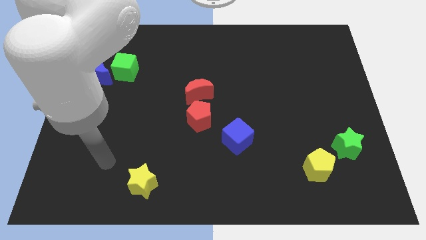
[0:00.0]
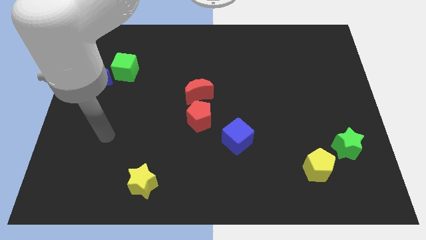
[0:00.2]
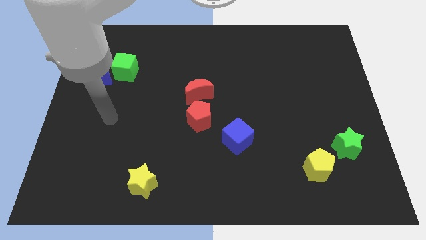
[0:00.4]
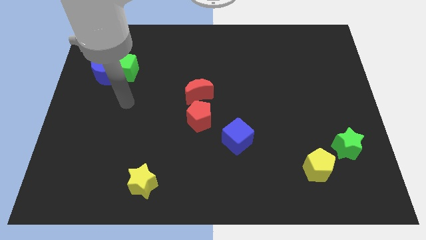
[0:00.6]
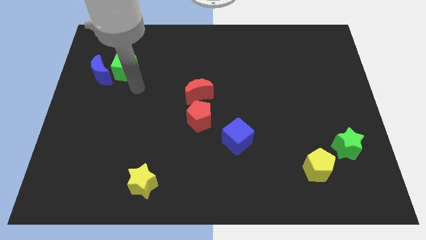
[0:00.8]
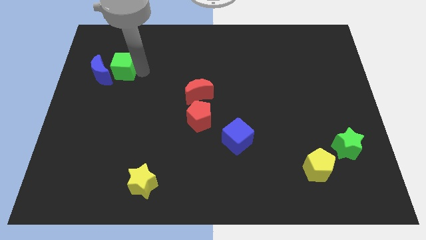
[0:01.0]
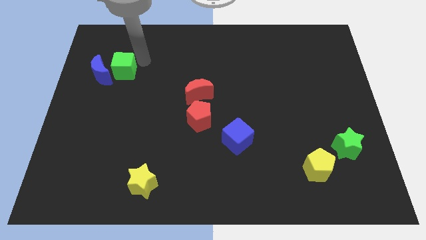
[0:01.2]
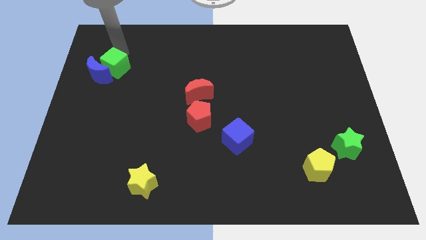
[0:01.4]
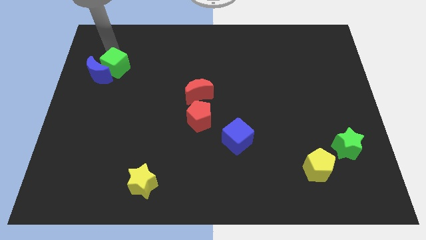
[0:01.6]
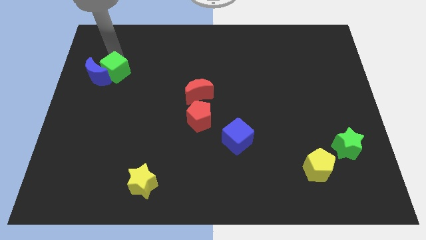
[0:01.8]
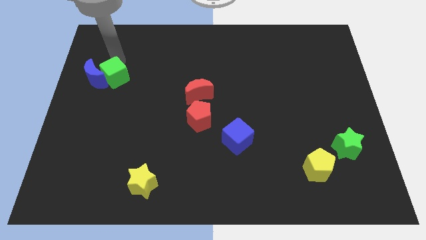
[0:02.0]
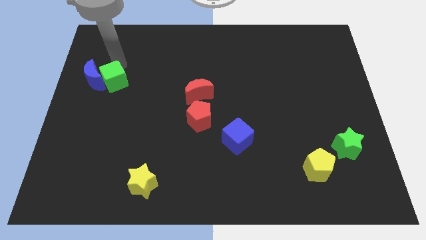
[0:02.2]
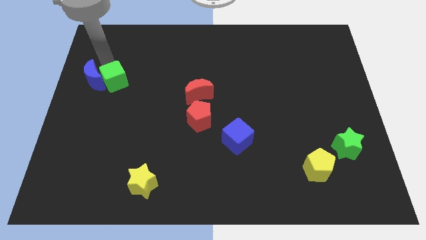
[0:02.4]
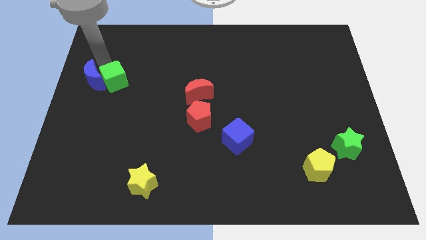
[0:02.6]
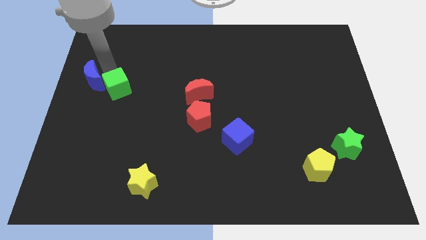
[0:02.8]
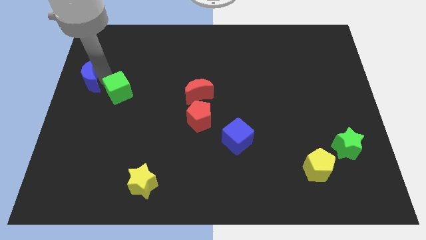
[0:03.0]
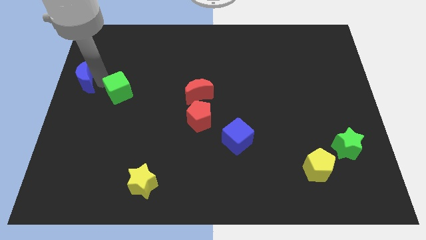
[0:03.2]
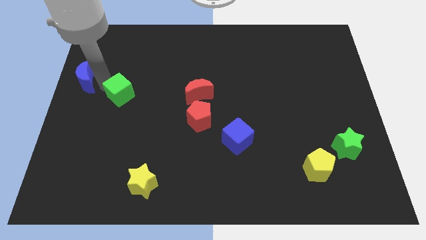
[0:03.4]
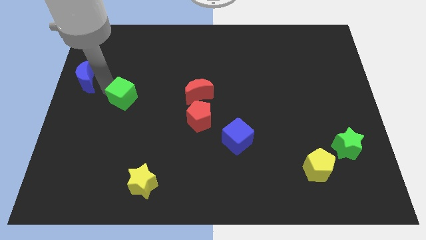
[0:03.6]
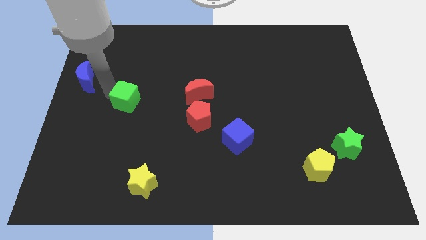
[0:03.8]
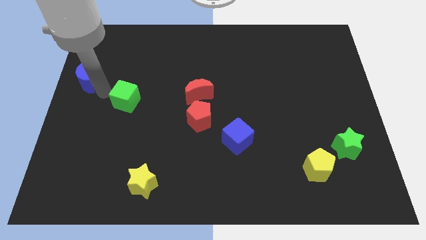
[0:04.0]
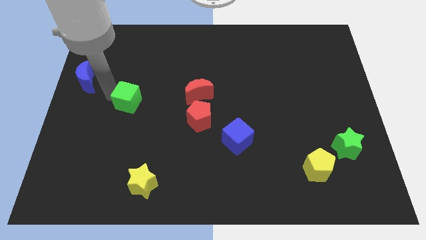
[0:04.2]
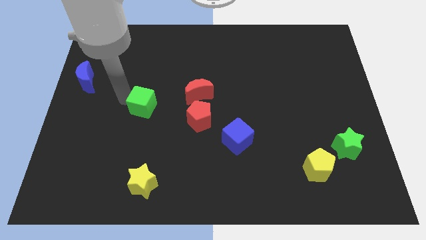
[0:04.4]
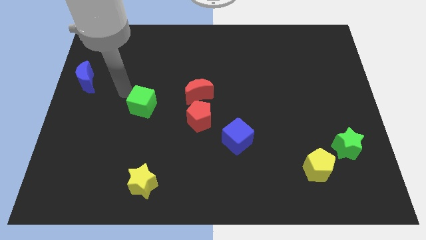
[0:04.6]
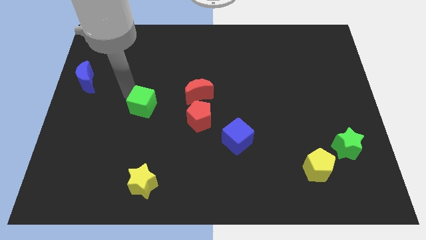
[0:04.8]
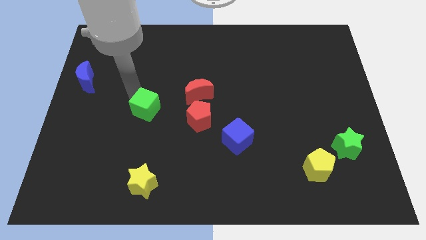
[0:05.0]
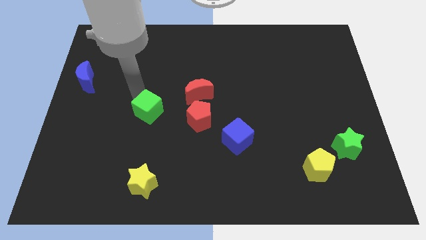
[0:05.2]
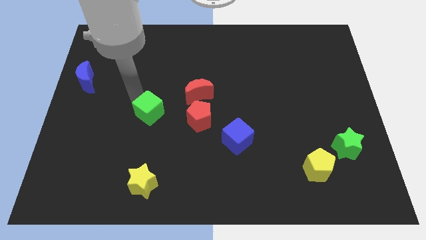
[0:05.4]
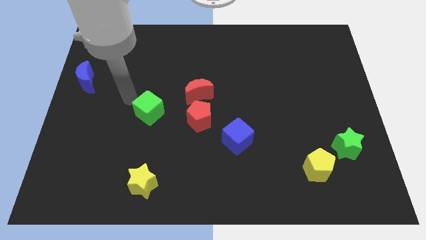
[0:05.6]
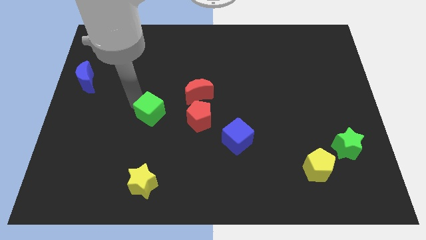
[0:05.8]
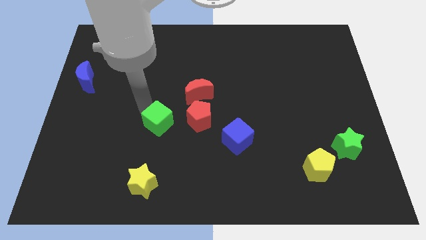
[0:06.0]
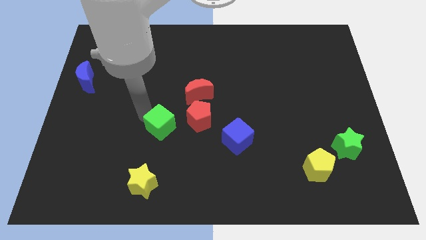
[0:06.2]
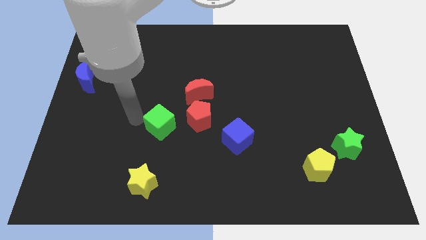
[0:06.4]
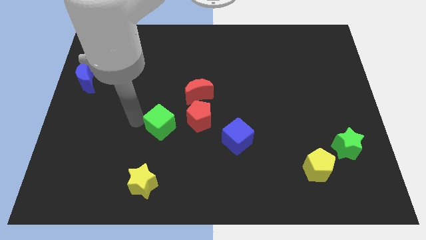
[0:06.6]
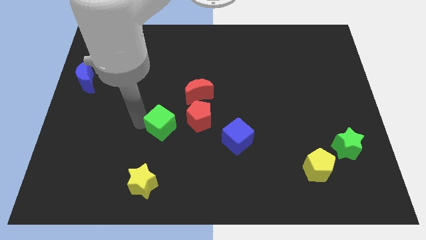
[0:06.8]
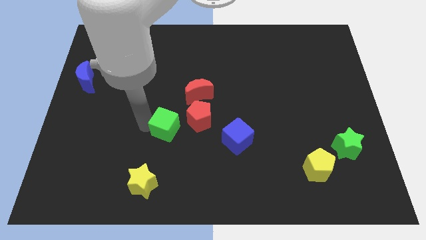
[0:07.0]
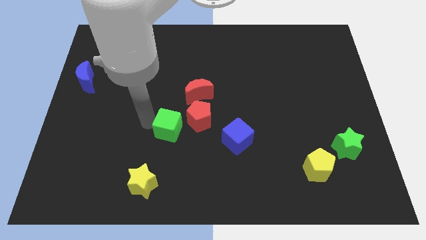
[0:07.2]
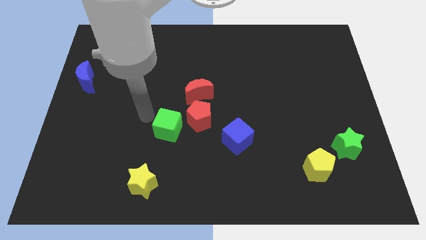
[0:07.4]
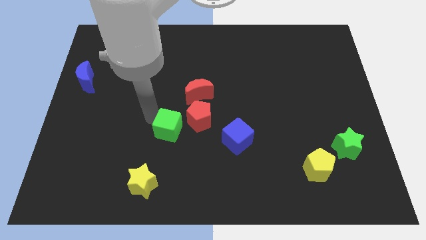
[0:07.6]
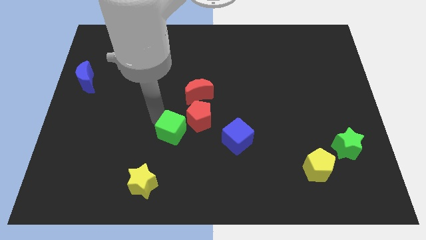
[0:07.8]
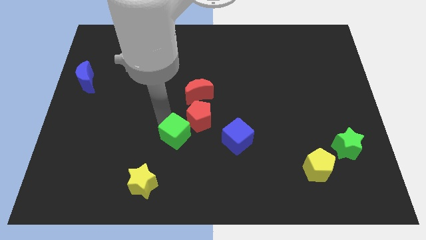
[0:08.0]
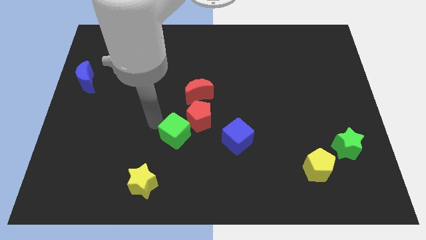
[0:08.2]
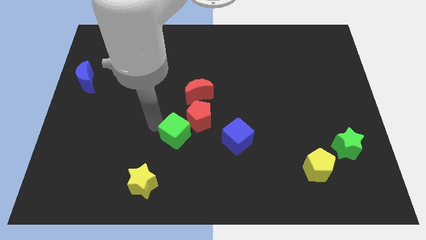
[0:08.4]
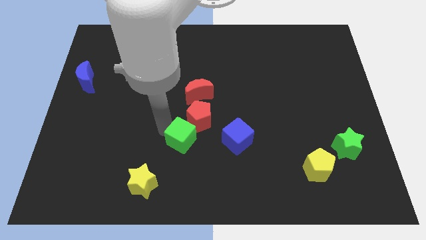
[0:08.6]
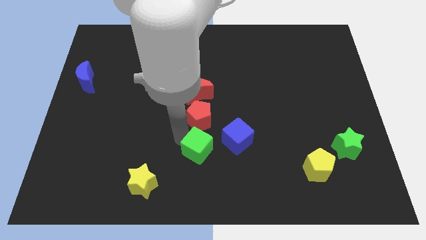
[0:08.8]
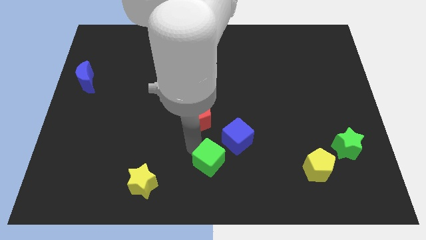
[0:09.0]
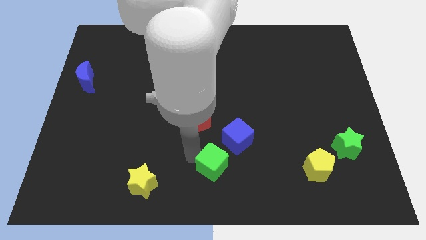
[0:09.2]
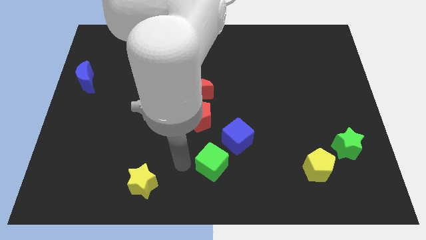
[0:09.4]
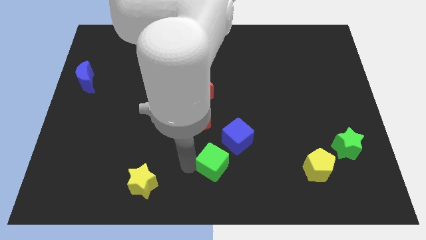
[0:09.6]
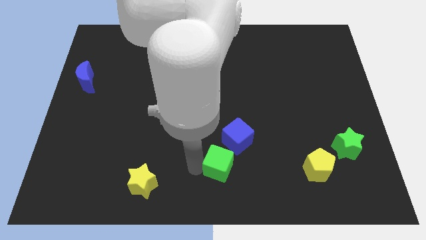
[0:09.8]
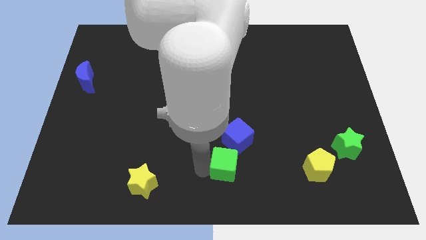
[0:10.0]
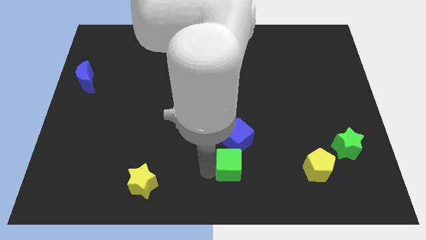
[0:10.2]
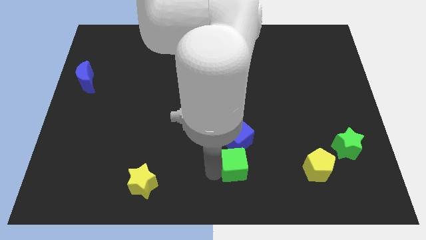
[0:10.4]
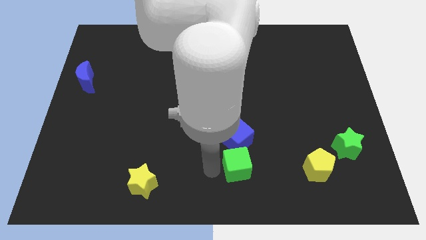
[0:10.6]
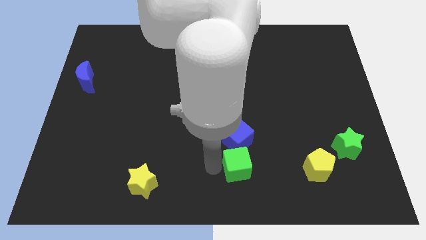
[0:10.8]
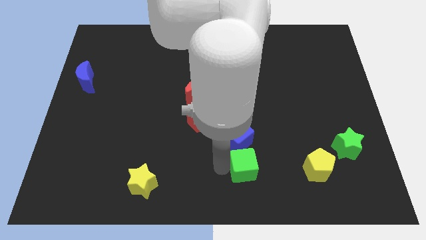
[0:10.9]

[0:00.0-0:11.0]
slide the green cube just left of the yellow pentagon

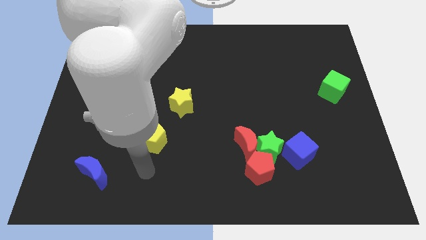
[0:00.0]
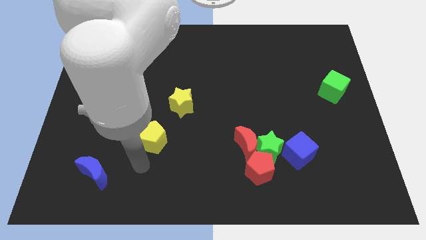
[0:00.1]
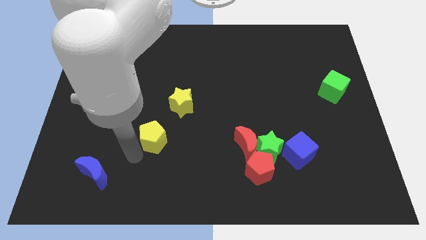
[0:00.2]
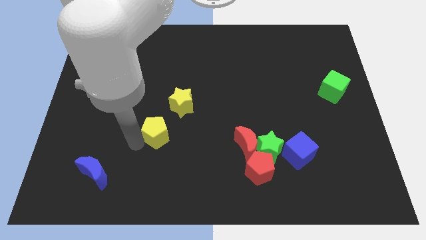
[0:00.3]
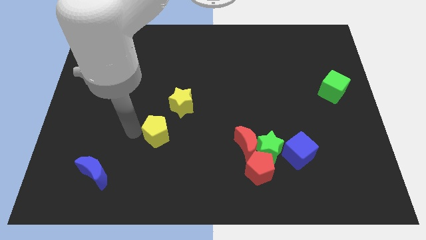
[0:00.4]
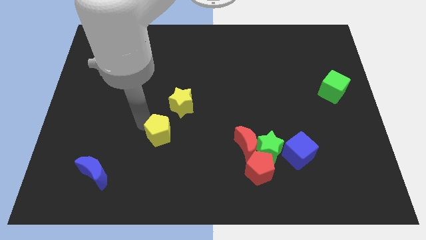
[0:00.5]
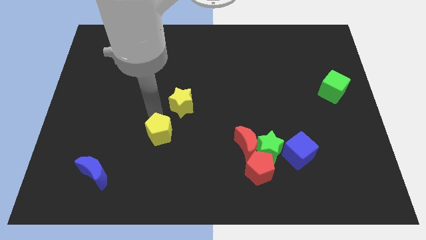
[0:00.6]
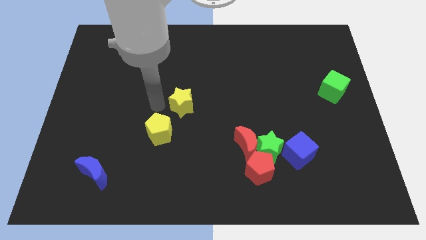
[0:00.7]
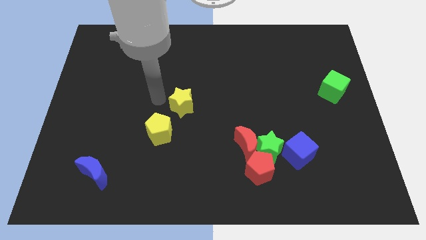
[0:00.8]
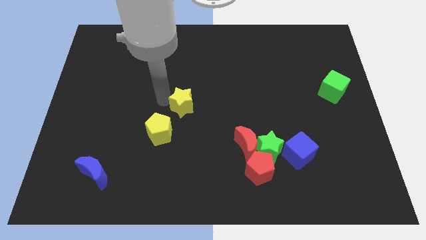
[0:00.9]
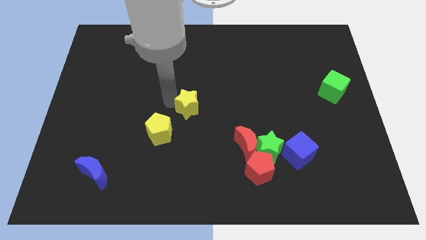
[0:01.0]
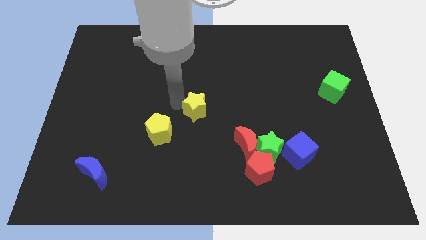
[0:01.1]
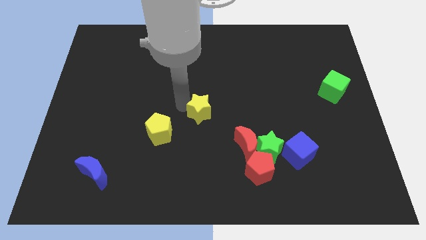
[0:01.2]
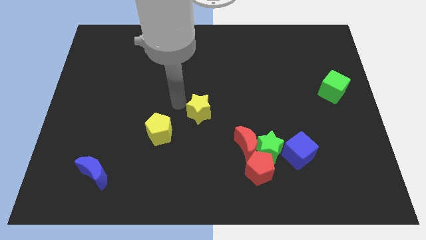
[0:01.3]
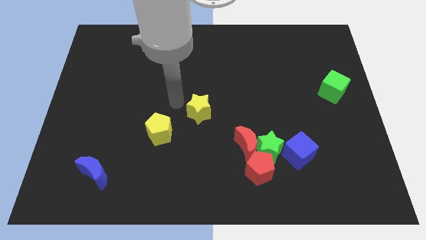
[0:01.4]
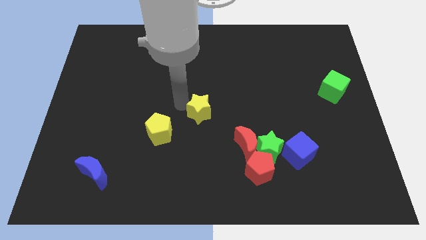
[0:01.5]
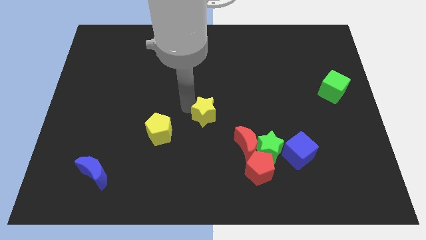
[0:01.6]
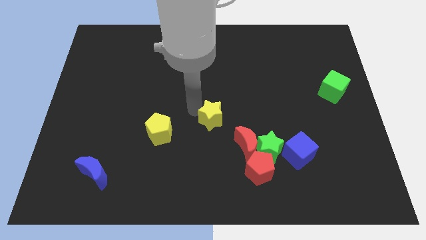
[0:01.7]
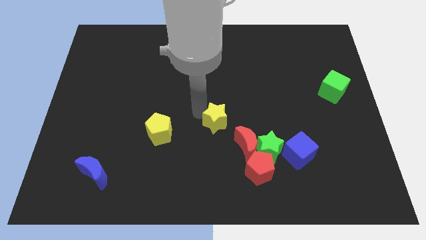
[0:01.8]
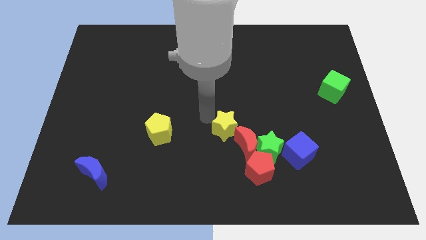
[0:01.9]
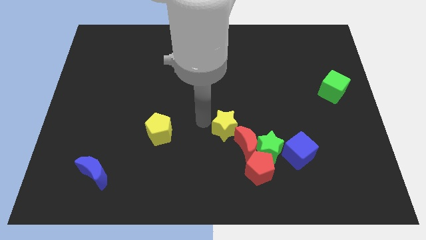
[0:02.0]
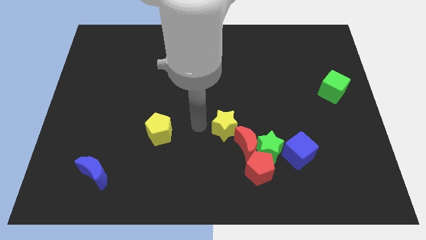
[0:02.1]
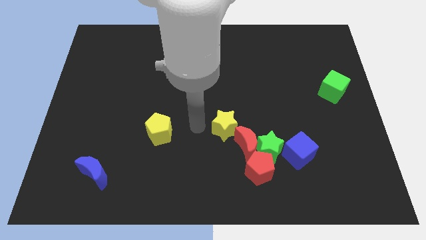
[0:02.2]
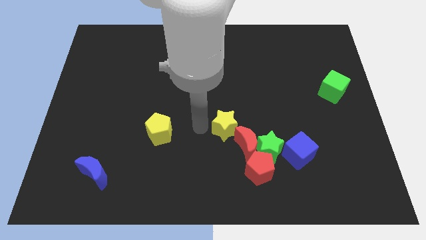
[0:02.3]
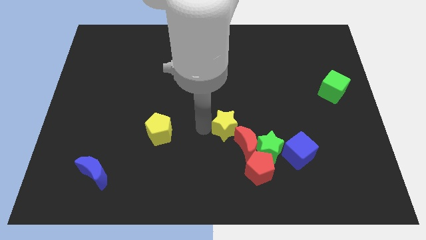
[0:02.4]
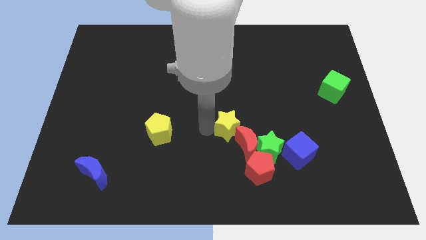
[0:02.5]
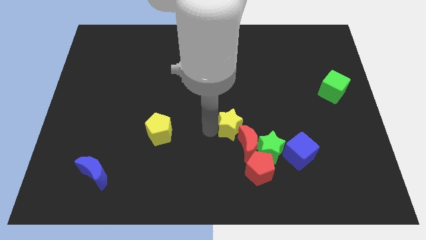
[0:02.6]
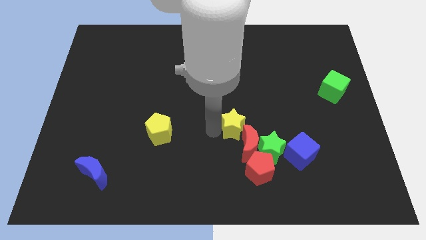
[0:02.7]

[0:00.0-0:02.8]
move the yellow star to the top of the red pentagon
